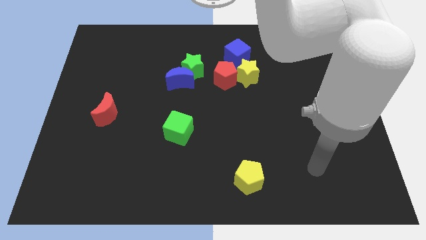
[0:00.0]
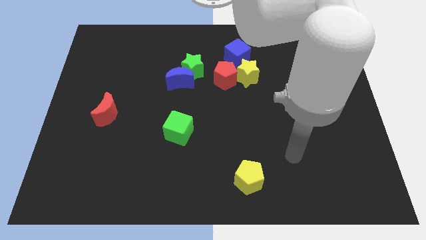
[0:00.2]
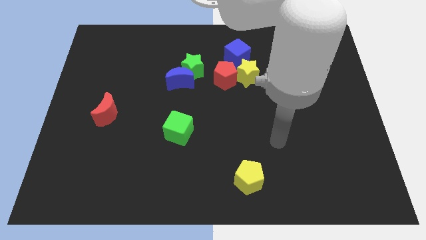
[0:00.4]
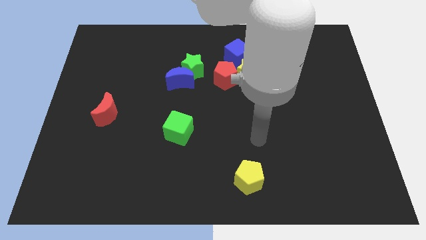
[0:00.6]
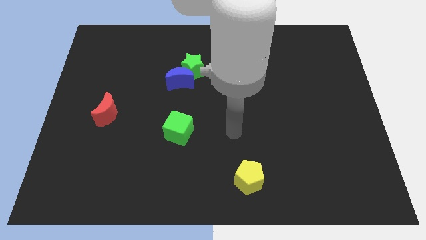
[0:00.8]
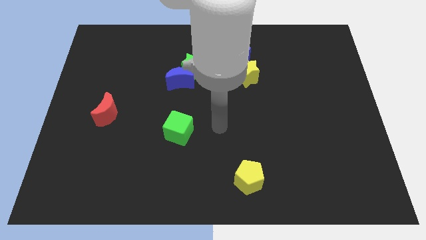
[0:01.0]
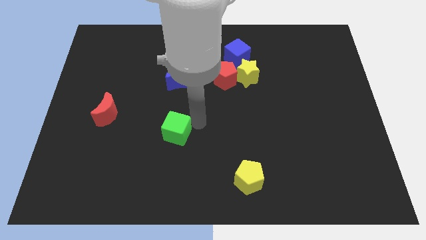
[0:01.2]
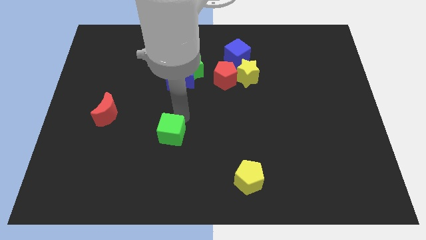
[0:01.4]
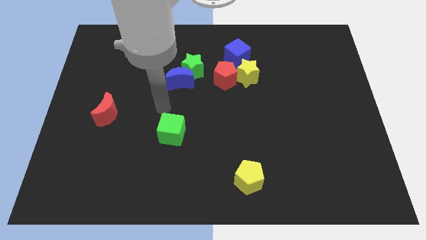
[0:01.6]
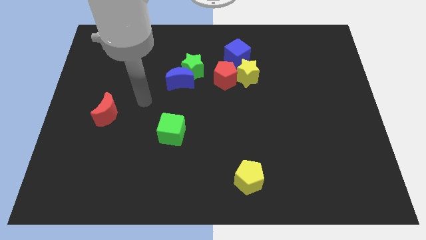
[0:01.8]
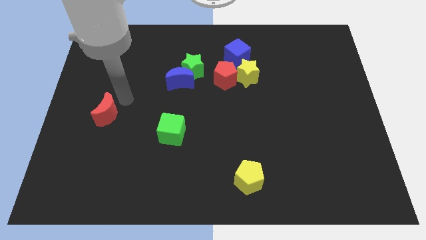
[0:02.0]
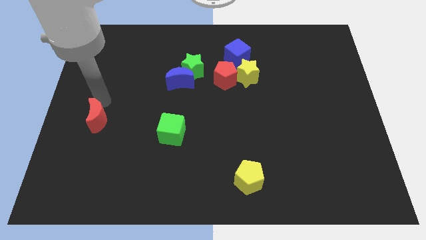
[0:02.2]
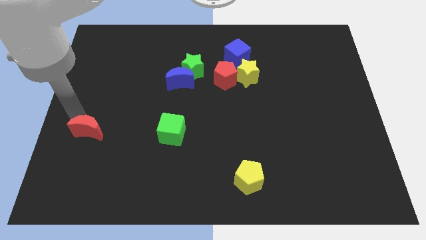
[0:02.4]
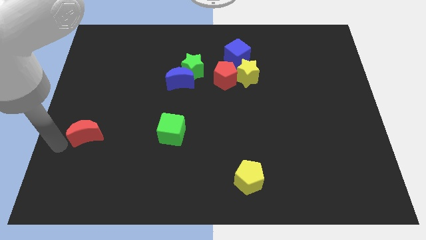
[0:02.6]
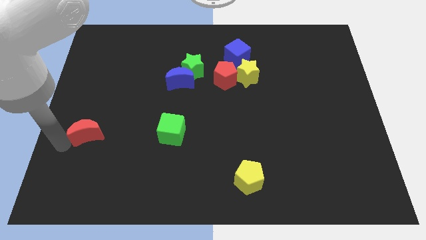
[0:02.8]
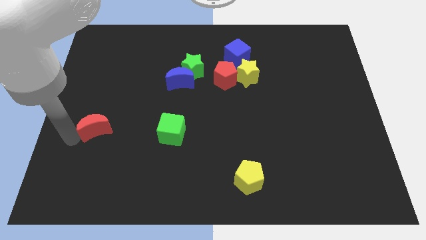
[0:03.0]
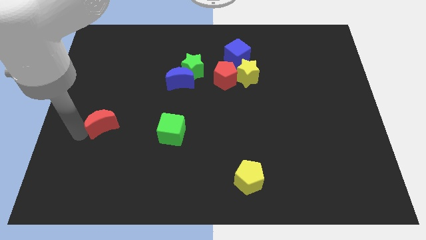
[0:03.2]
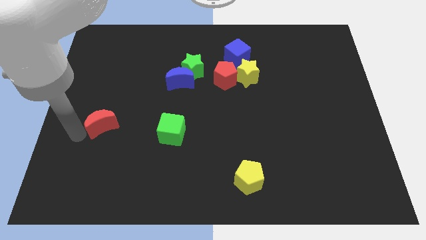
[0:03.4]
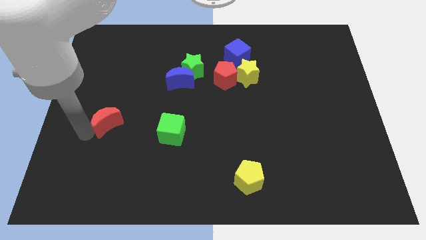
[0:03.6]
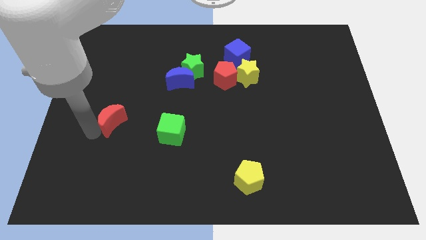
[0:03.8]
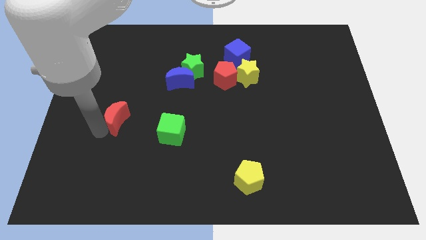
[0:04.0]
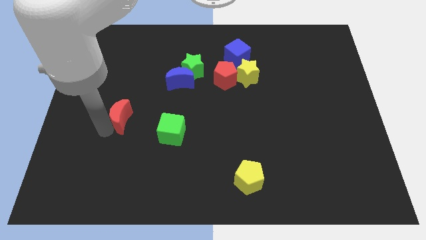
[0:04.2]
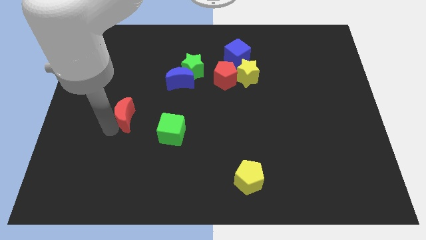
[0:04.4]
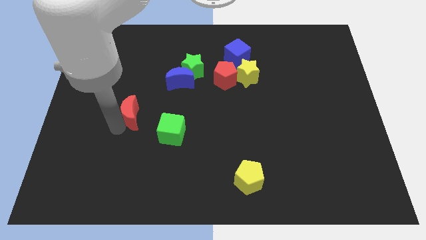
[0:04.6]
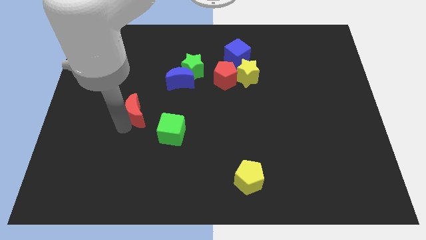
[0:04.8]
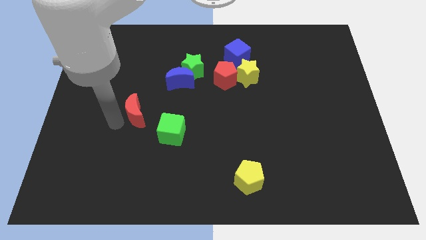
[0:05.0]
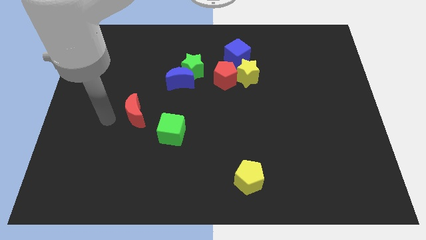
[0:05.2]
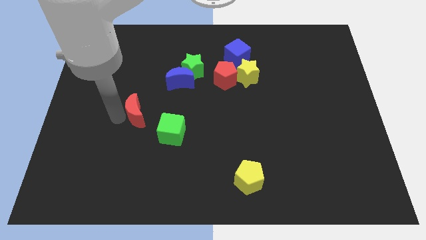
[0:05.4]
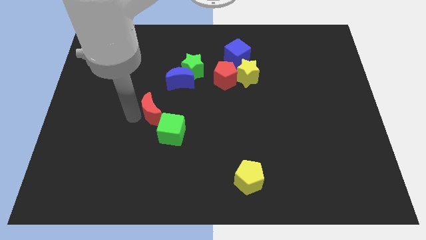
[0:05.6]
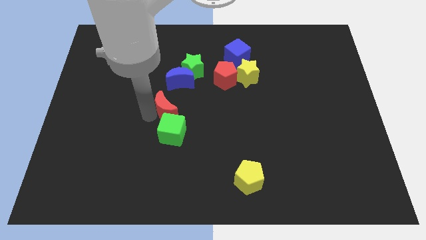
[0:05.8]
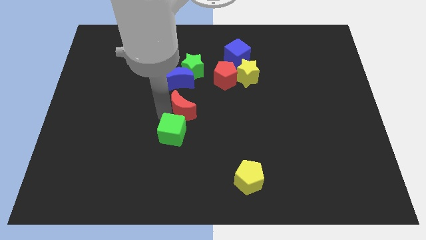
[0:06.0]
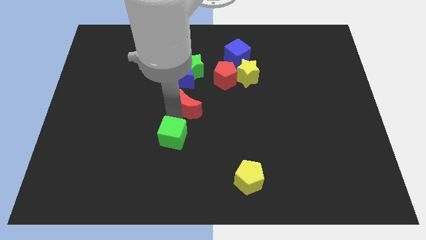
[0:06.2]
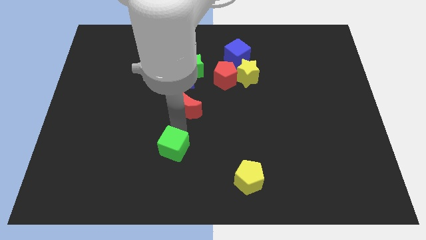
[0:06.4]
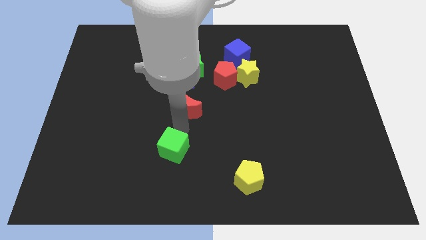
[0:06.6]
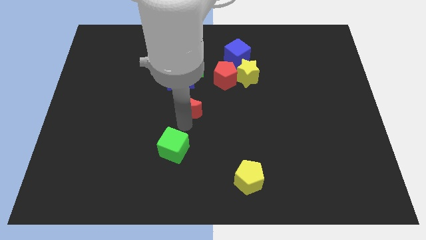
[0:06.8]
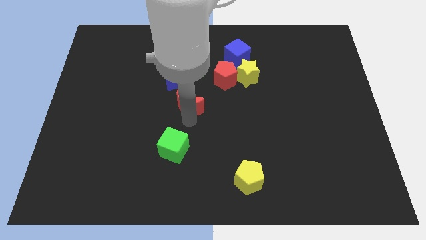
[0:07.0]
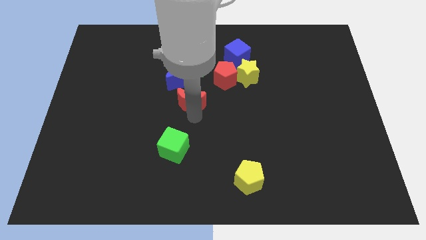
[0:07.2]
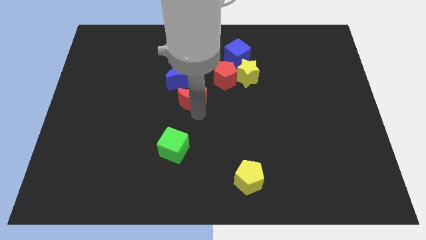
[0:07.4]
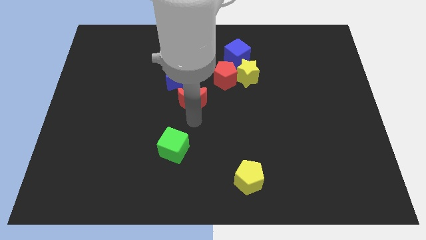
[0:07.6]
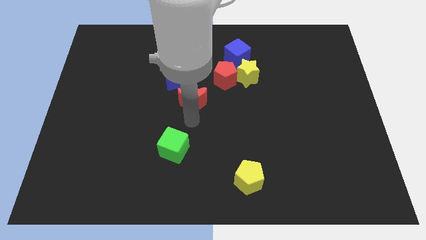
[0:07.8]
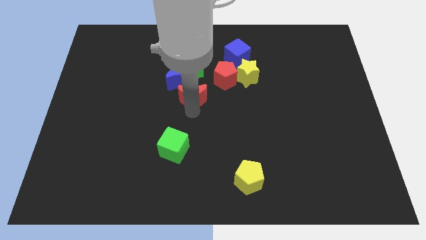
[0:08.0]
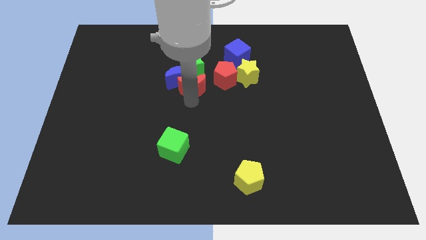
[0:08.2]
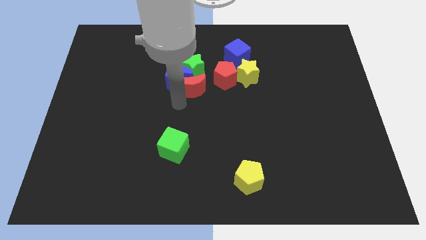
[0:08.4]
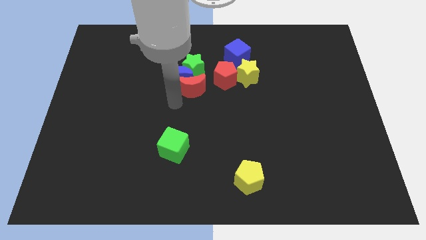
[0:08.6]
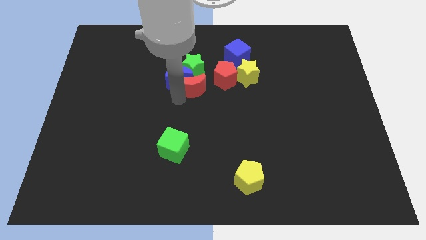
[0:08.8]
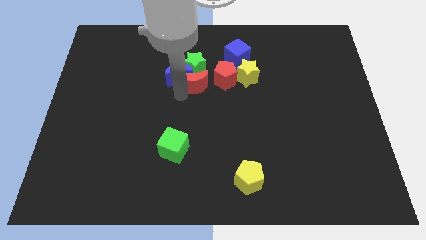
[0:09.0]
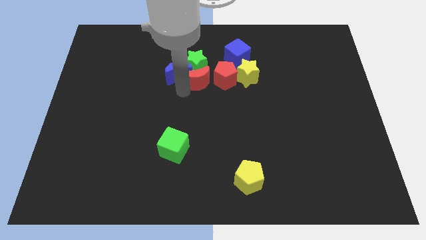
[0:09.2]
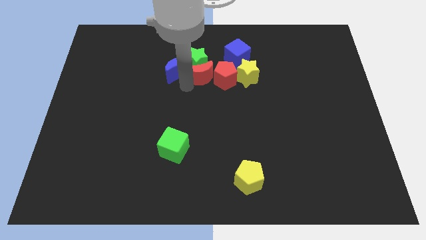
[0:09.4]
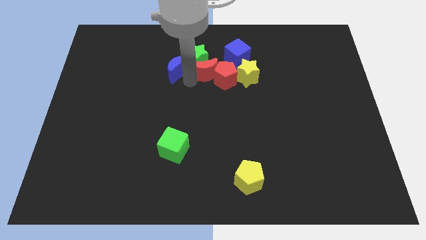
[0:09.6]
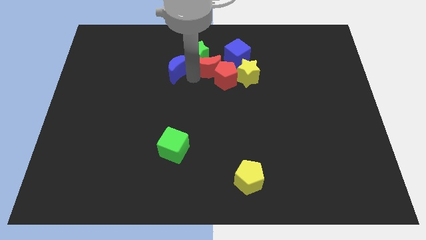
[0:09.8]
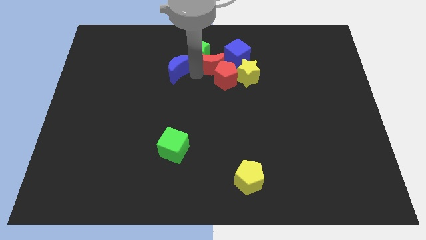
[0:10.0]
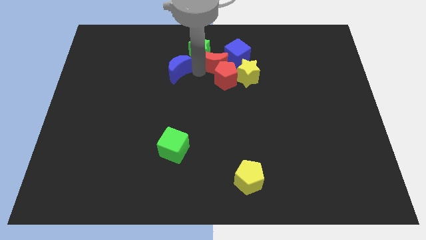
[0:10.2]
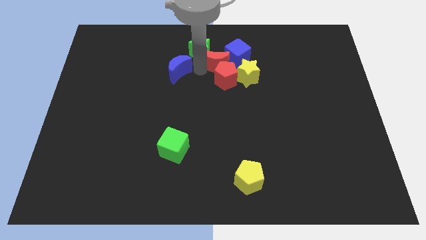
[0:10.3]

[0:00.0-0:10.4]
push the red moon close to the blue cube

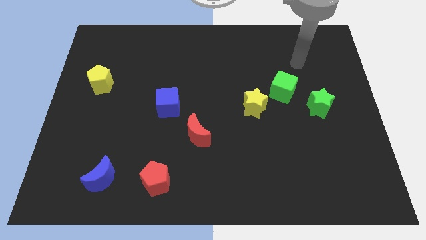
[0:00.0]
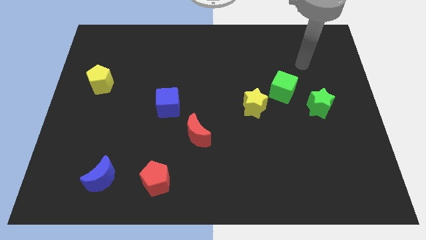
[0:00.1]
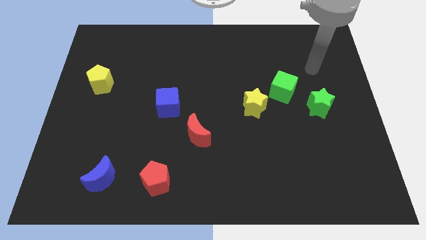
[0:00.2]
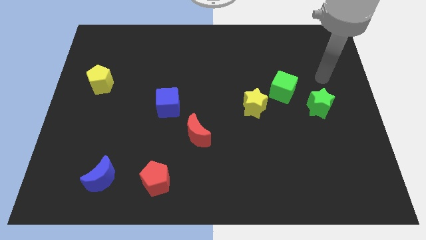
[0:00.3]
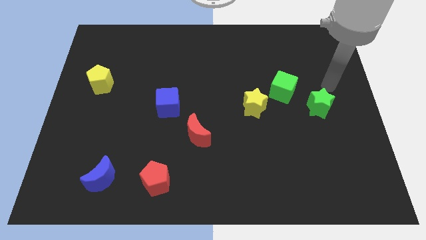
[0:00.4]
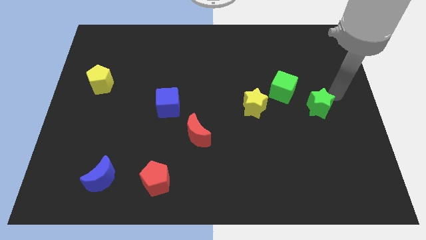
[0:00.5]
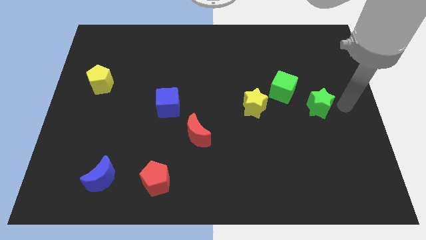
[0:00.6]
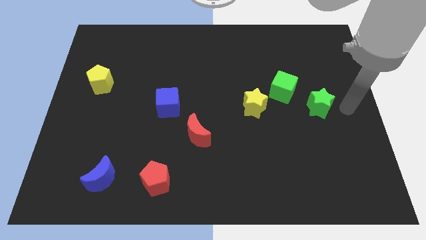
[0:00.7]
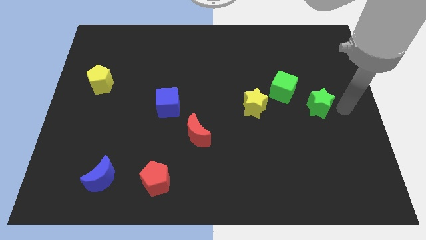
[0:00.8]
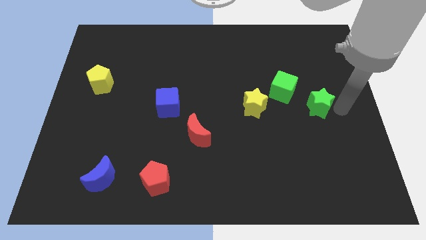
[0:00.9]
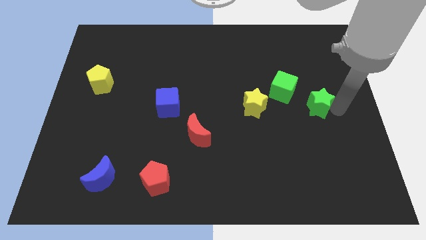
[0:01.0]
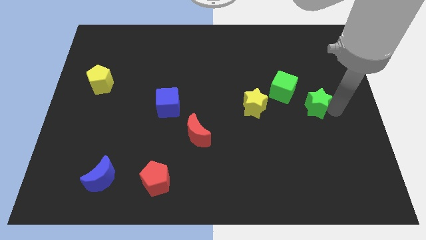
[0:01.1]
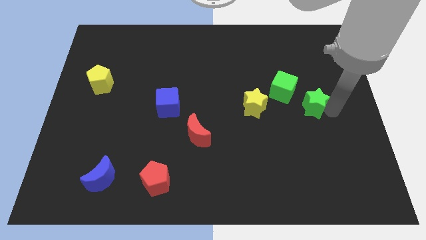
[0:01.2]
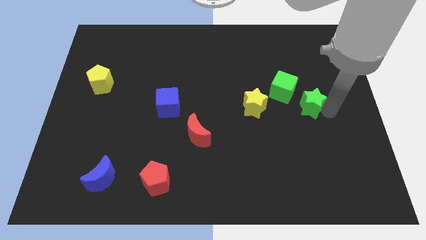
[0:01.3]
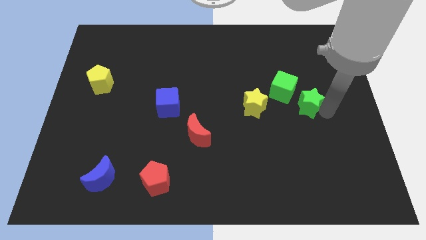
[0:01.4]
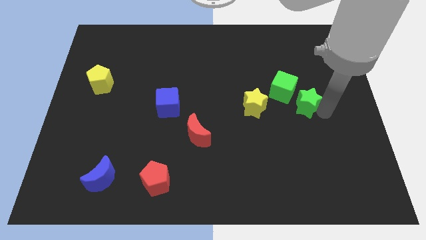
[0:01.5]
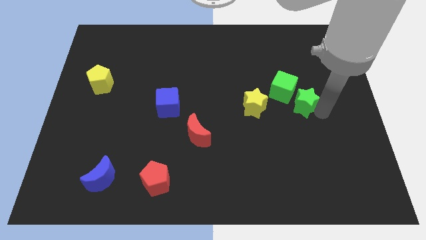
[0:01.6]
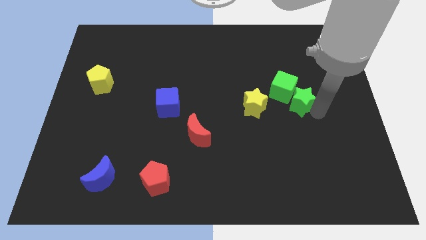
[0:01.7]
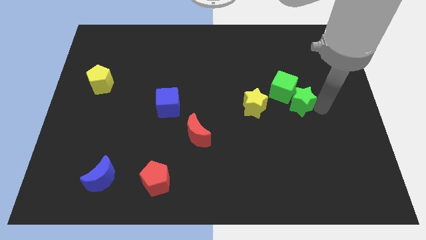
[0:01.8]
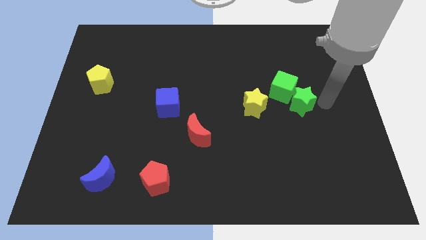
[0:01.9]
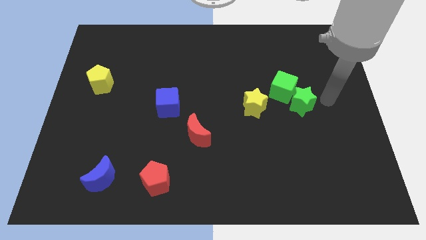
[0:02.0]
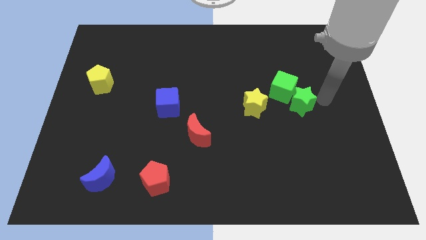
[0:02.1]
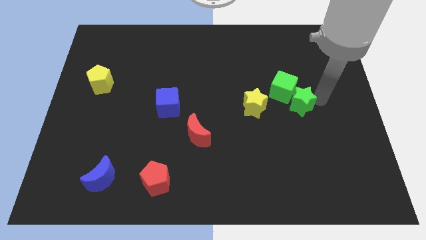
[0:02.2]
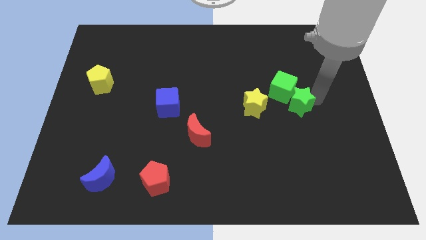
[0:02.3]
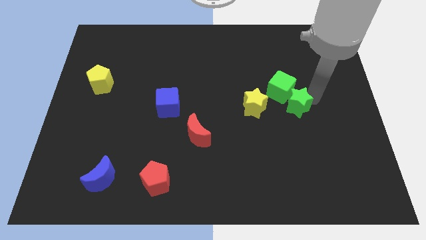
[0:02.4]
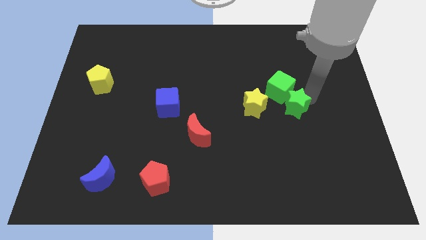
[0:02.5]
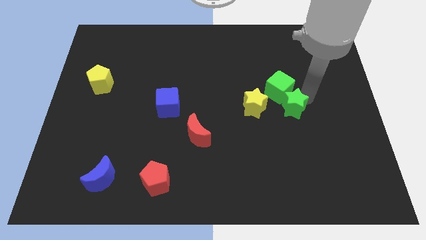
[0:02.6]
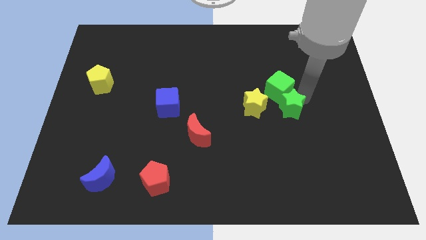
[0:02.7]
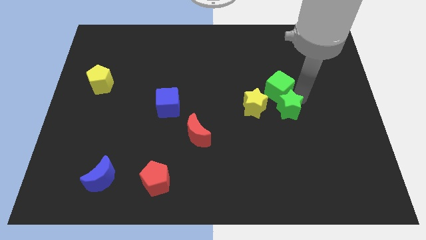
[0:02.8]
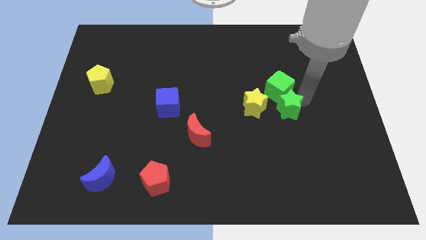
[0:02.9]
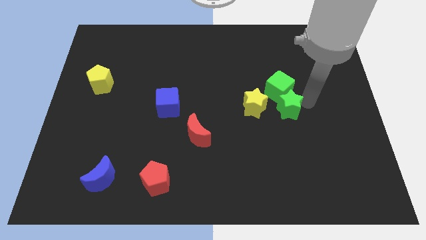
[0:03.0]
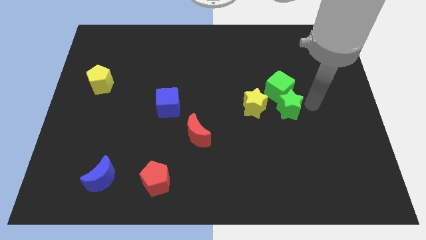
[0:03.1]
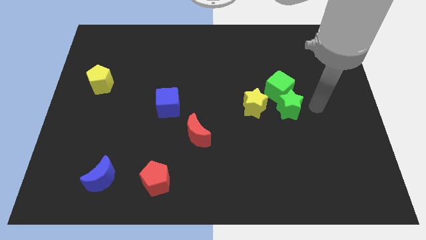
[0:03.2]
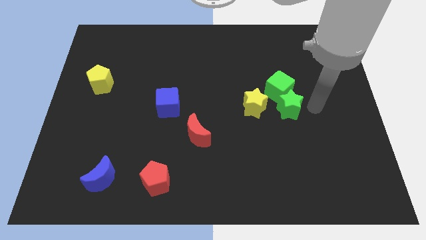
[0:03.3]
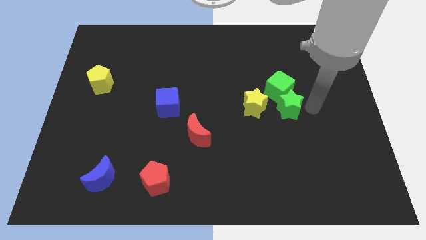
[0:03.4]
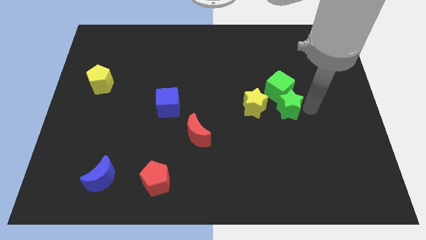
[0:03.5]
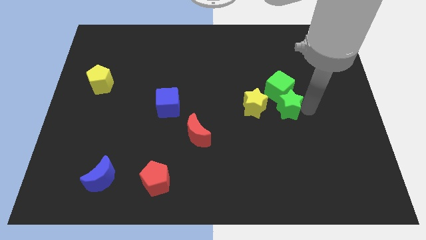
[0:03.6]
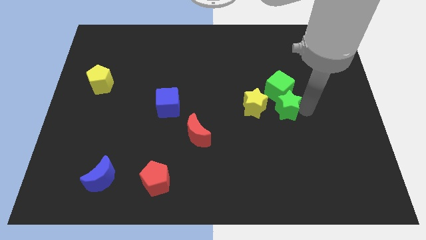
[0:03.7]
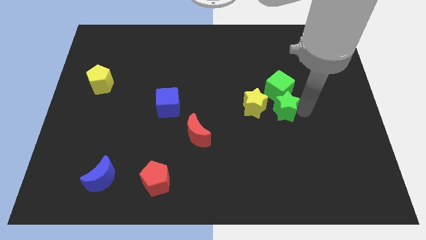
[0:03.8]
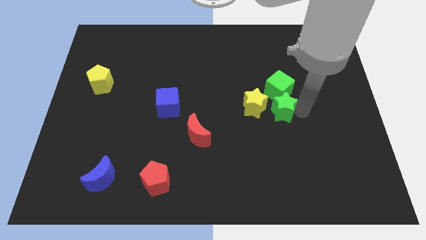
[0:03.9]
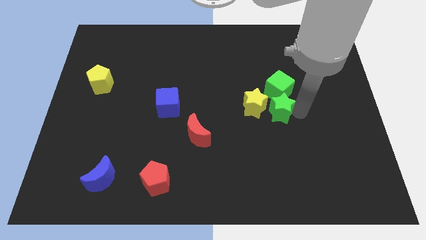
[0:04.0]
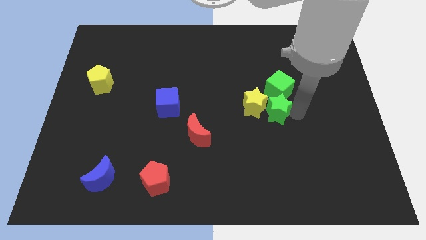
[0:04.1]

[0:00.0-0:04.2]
put the green star towards the yellow star
